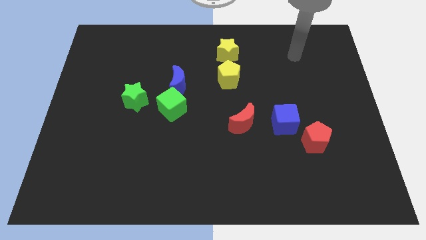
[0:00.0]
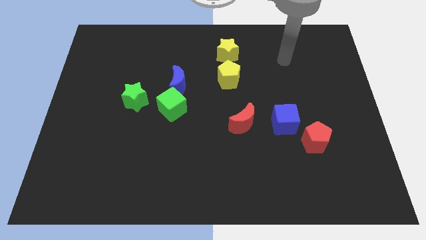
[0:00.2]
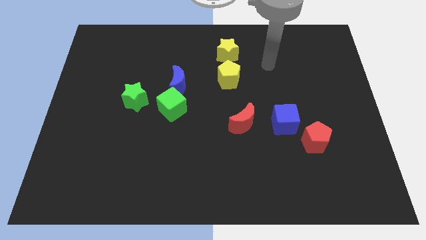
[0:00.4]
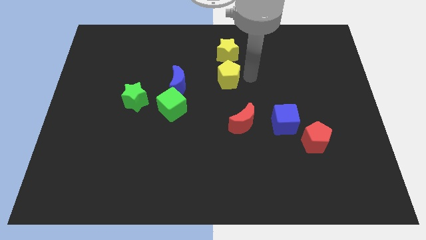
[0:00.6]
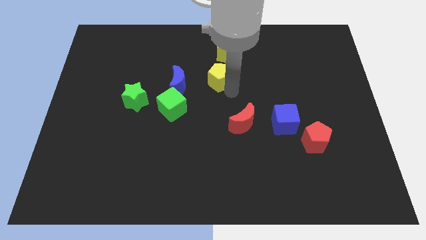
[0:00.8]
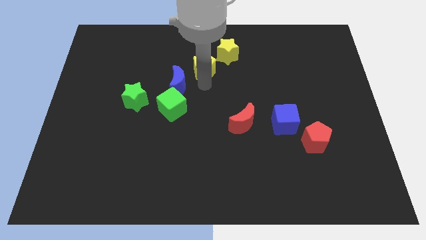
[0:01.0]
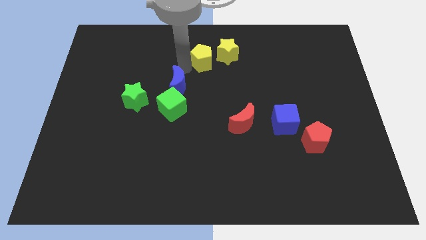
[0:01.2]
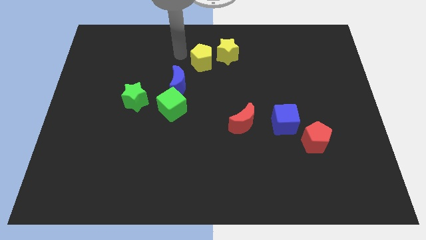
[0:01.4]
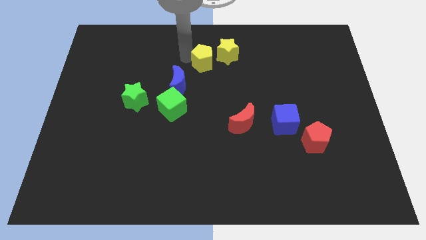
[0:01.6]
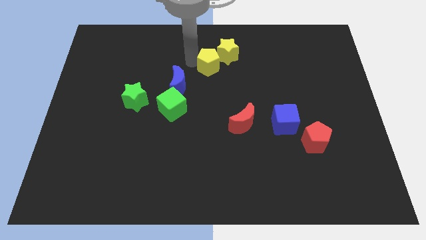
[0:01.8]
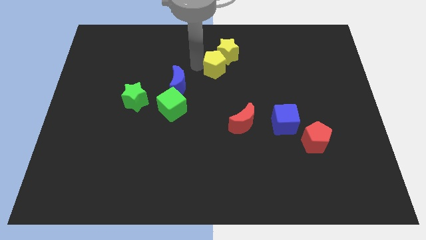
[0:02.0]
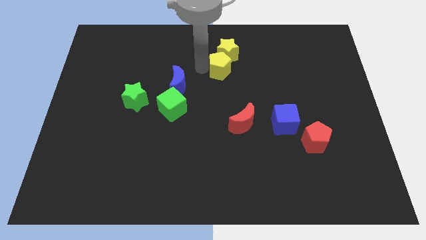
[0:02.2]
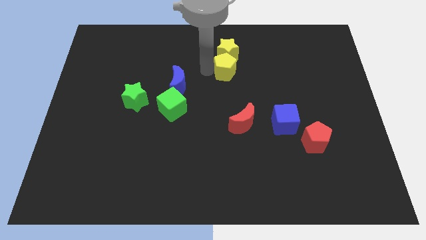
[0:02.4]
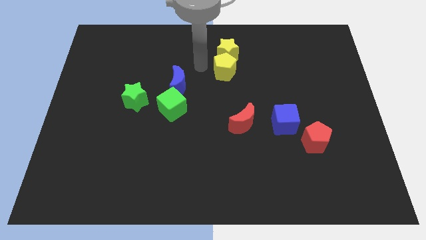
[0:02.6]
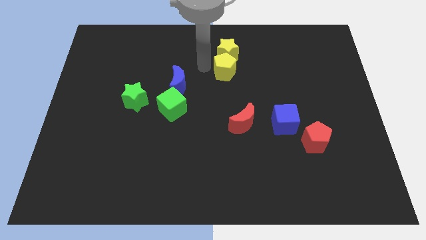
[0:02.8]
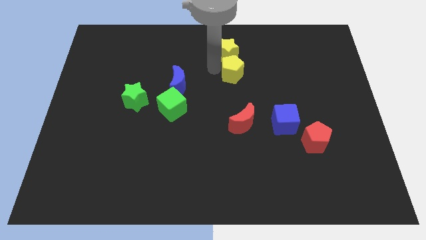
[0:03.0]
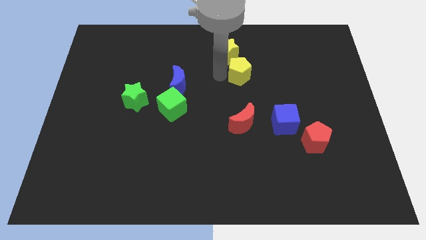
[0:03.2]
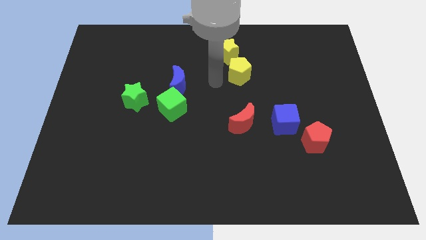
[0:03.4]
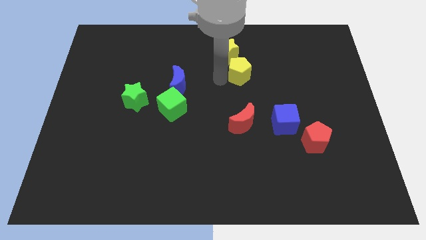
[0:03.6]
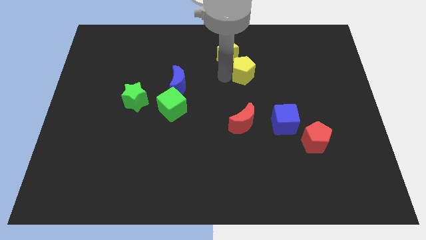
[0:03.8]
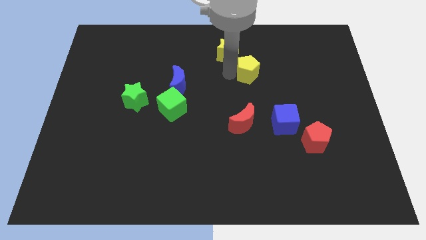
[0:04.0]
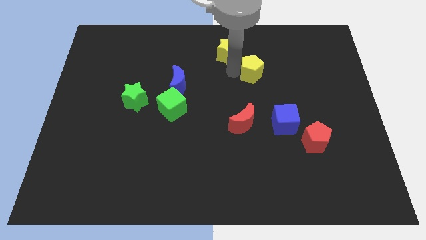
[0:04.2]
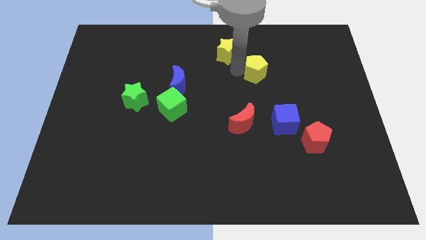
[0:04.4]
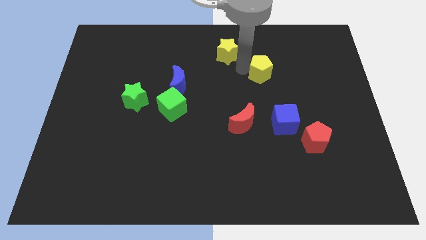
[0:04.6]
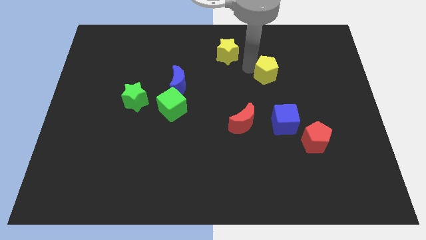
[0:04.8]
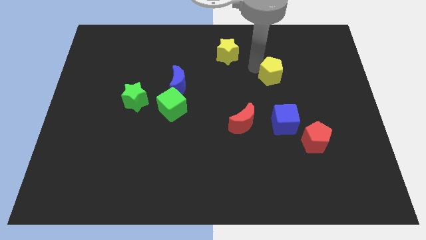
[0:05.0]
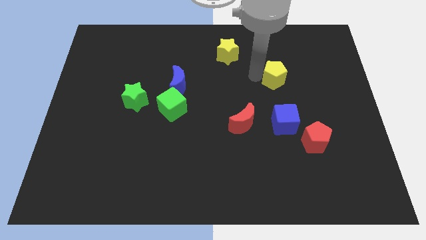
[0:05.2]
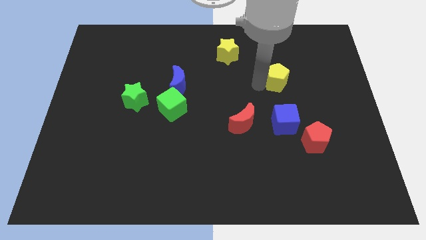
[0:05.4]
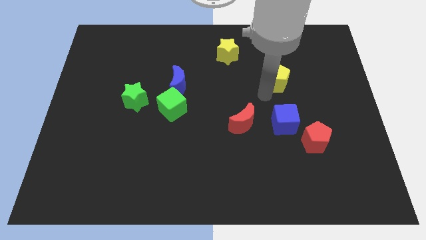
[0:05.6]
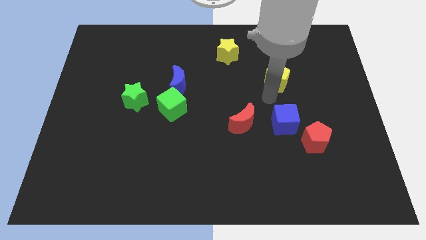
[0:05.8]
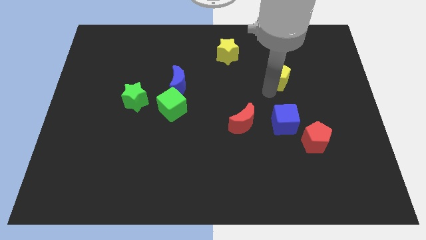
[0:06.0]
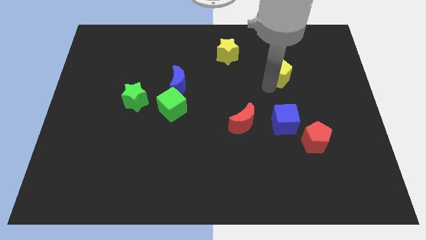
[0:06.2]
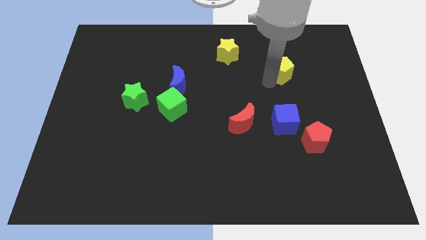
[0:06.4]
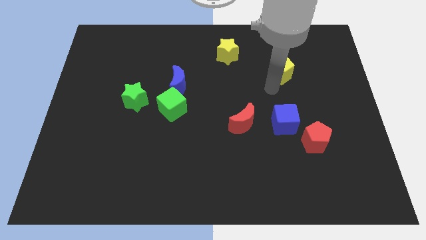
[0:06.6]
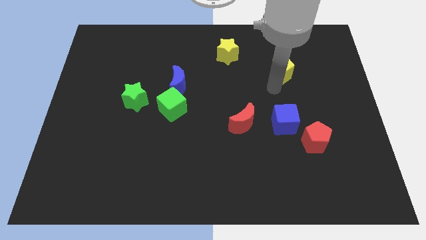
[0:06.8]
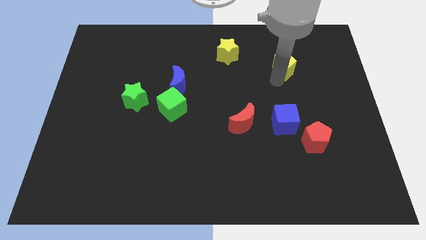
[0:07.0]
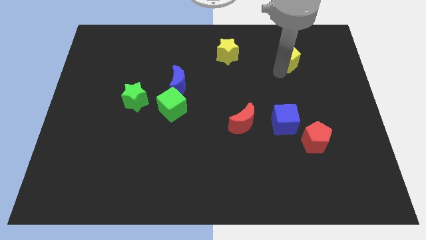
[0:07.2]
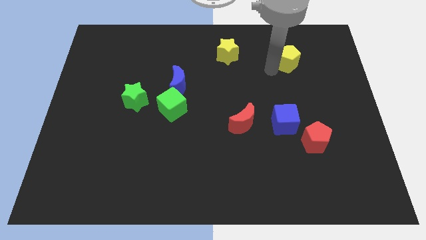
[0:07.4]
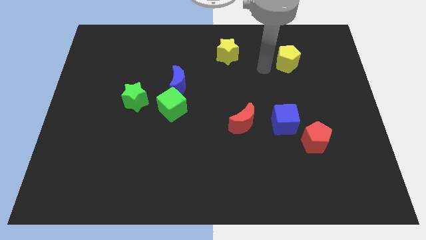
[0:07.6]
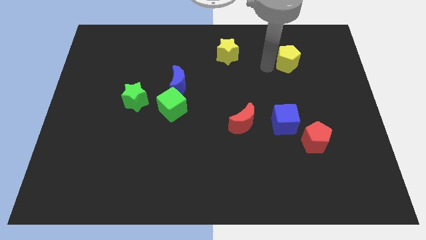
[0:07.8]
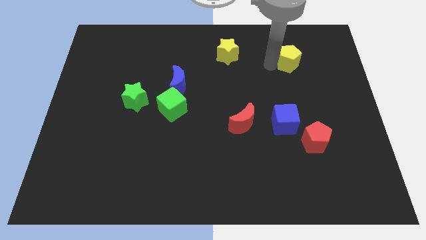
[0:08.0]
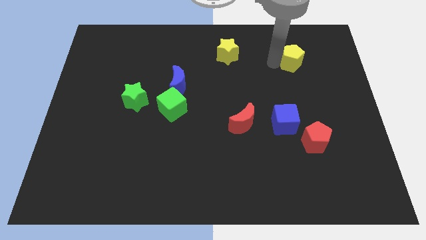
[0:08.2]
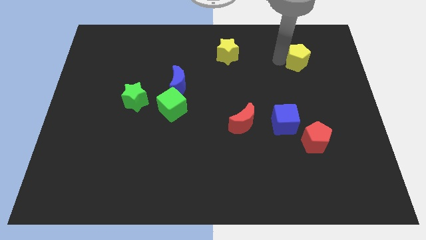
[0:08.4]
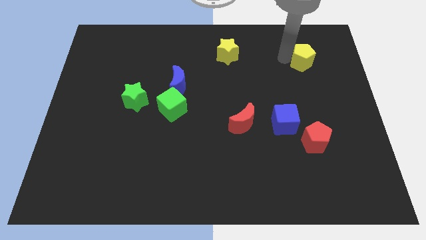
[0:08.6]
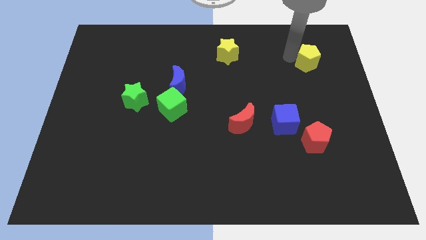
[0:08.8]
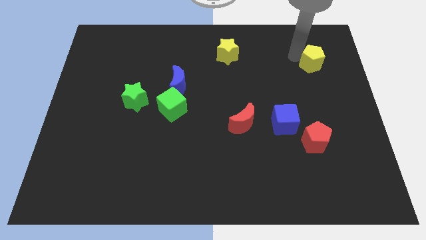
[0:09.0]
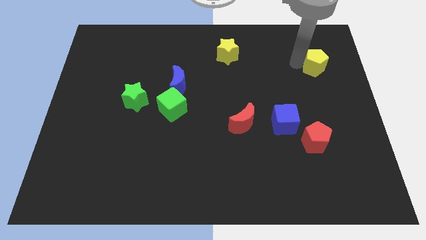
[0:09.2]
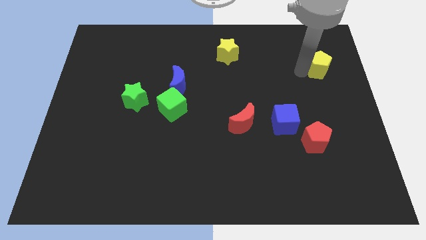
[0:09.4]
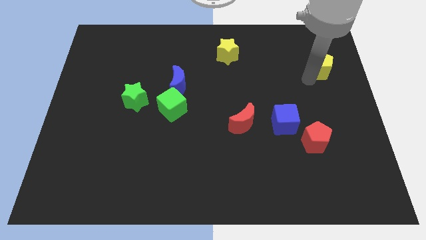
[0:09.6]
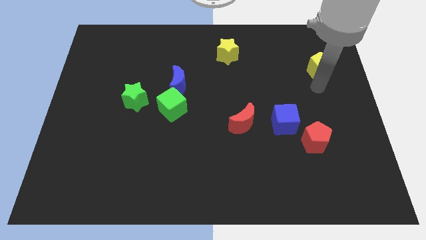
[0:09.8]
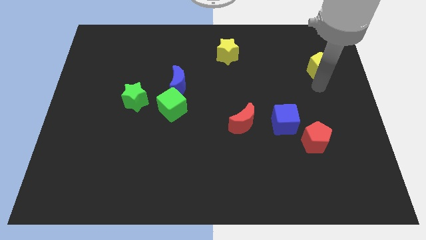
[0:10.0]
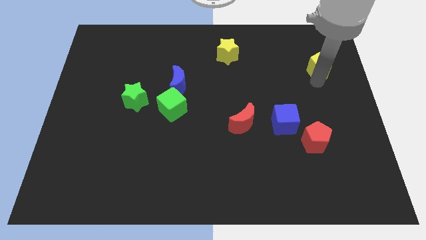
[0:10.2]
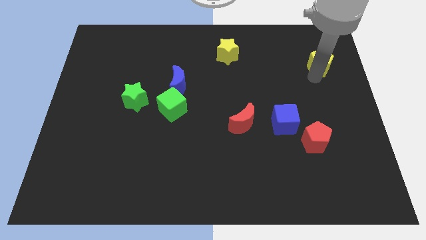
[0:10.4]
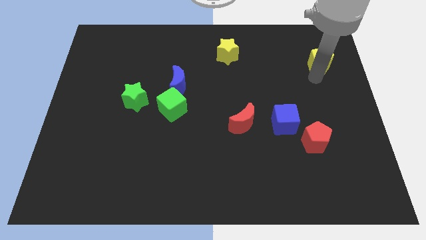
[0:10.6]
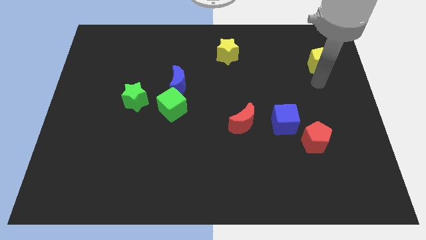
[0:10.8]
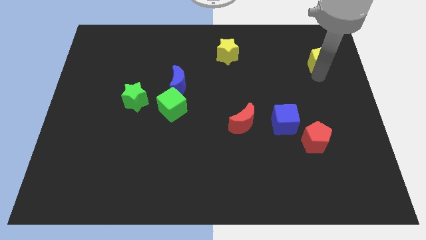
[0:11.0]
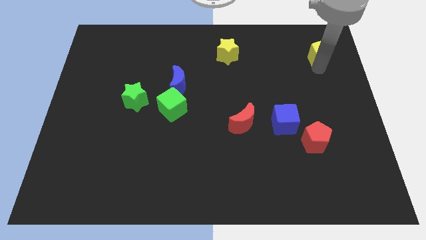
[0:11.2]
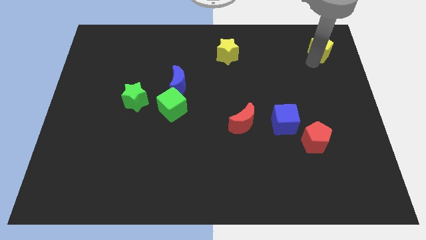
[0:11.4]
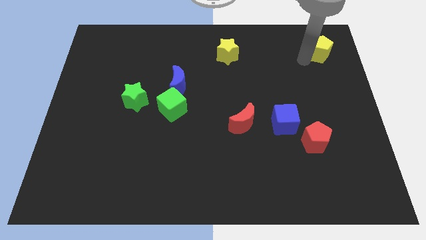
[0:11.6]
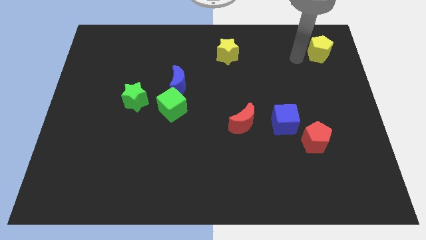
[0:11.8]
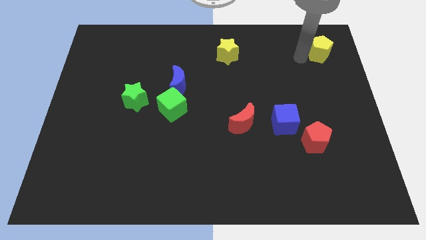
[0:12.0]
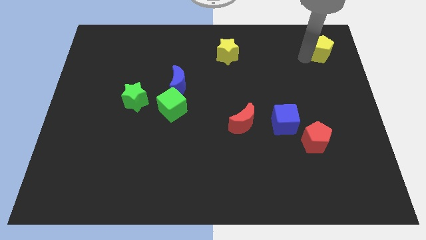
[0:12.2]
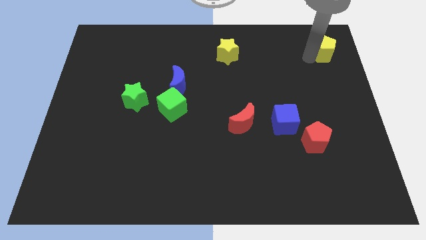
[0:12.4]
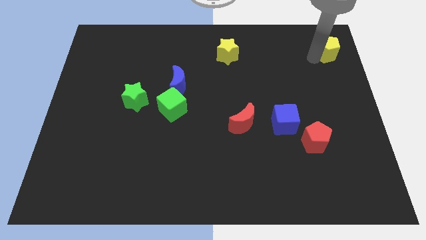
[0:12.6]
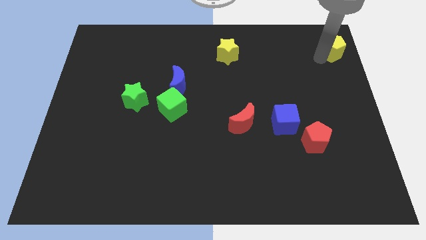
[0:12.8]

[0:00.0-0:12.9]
move the yellow pentagon to the upper right corner
